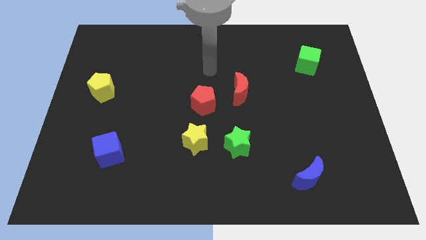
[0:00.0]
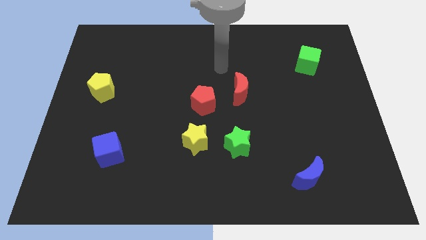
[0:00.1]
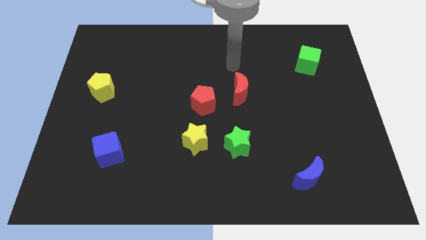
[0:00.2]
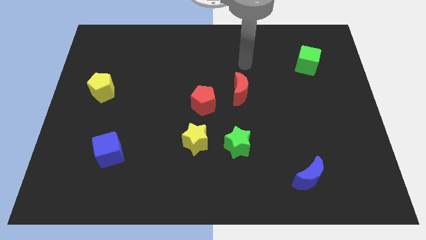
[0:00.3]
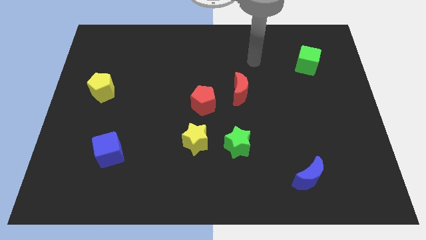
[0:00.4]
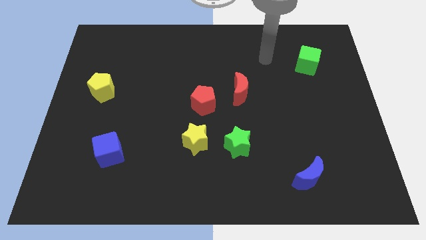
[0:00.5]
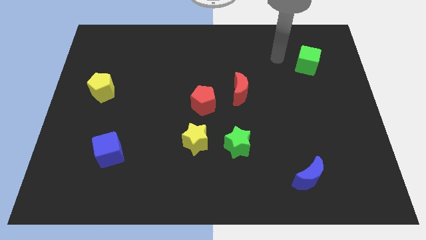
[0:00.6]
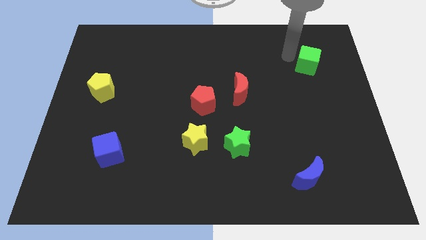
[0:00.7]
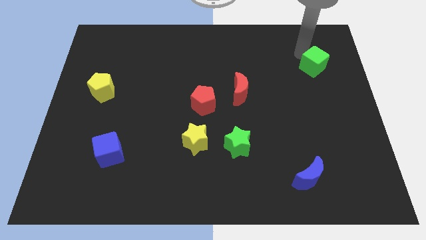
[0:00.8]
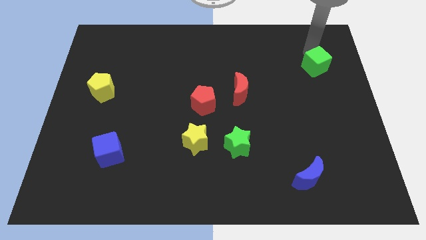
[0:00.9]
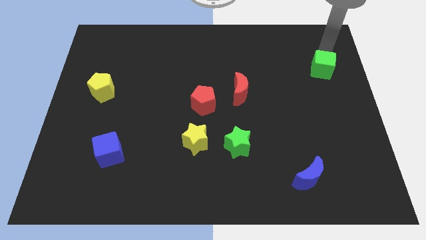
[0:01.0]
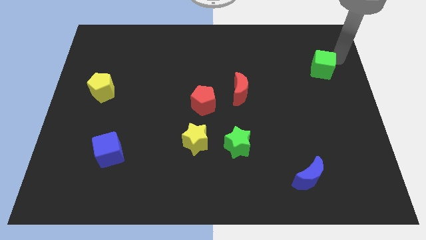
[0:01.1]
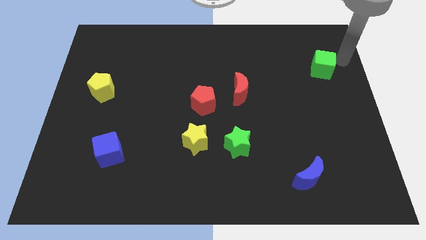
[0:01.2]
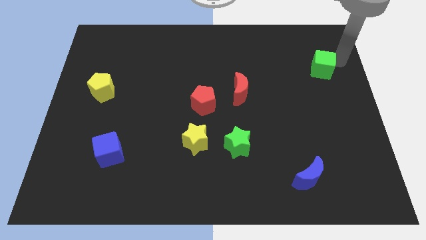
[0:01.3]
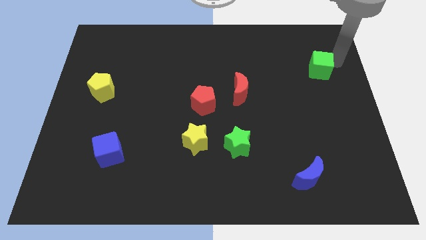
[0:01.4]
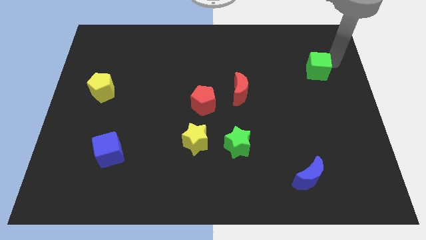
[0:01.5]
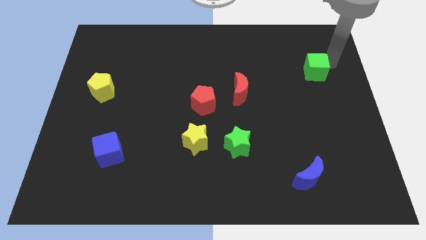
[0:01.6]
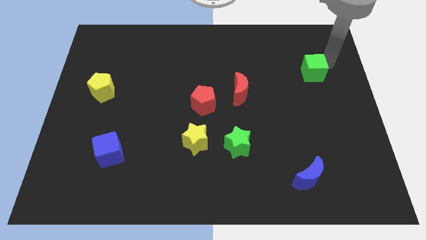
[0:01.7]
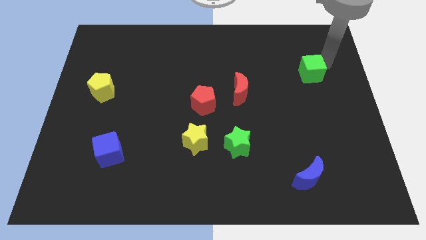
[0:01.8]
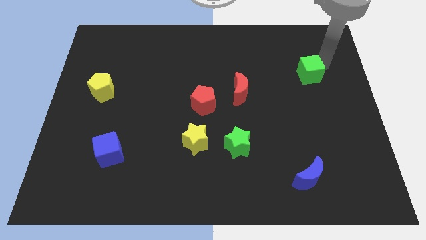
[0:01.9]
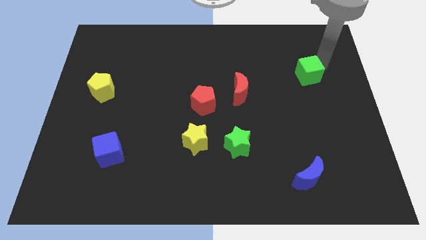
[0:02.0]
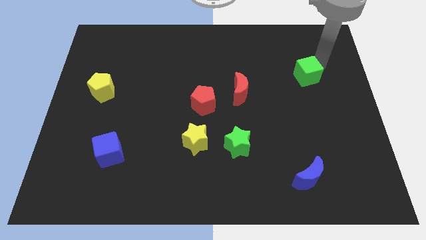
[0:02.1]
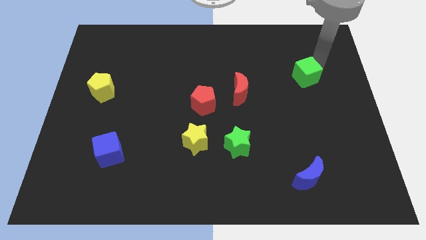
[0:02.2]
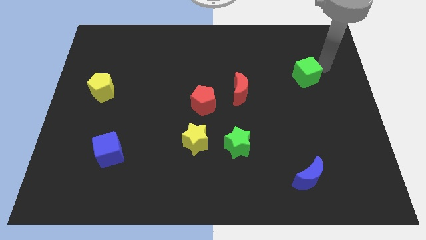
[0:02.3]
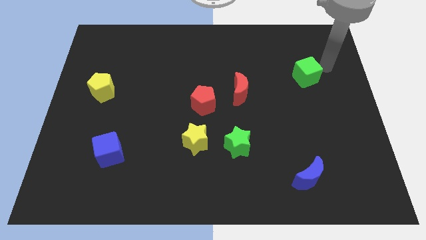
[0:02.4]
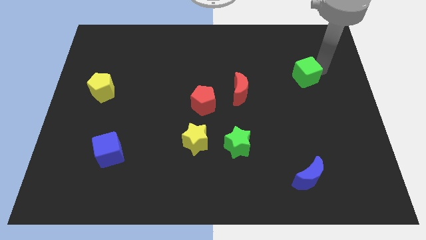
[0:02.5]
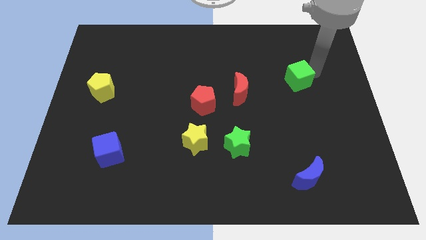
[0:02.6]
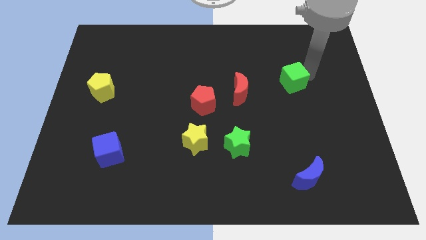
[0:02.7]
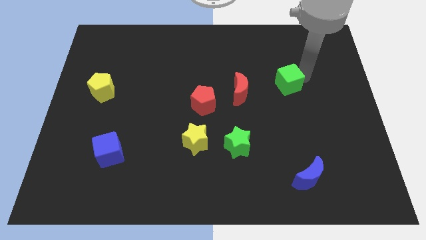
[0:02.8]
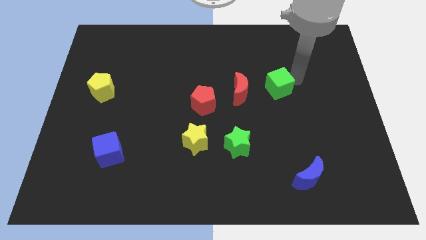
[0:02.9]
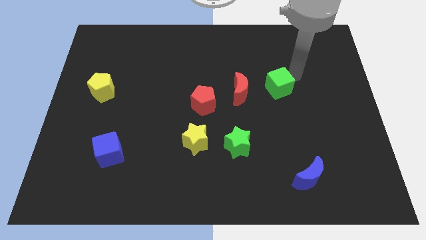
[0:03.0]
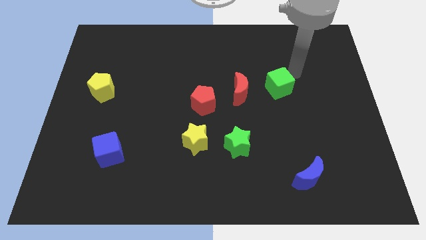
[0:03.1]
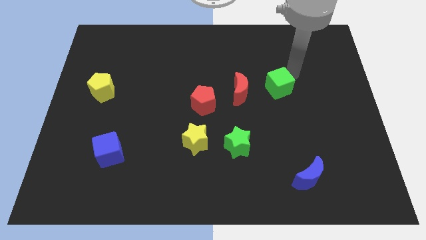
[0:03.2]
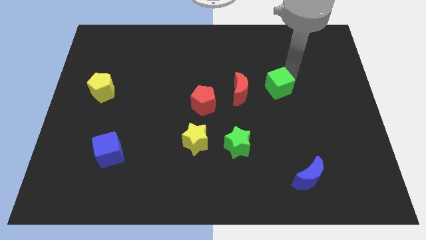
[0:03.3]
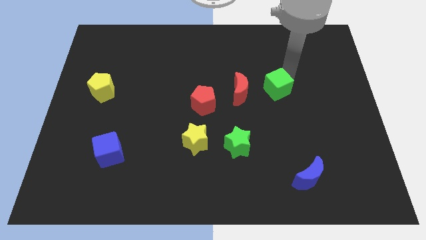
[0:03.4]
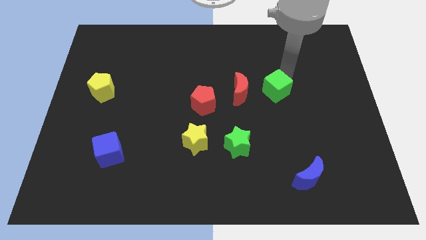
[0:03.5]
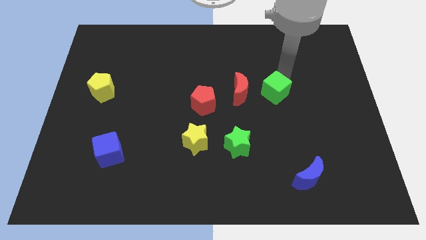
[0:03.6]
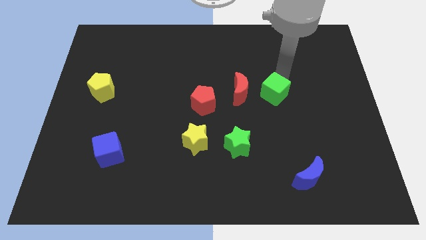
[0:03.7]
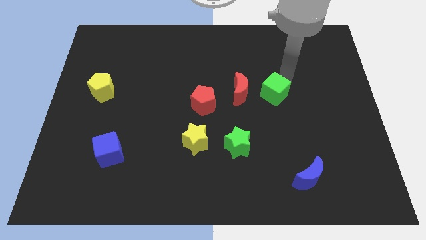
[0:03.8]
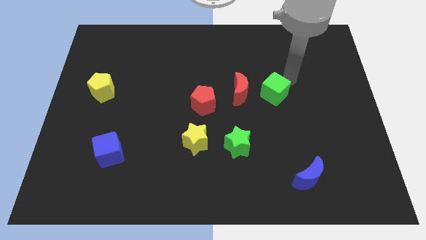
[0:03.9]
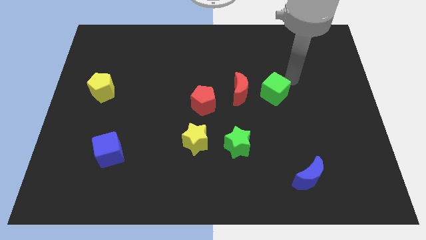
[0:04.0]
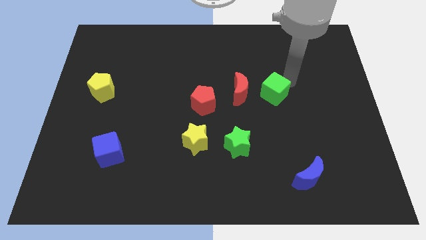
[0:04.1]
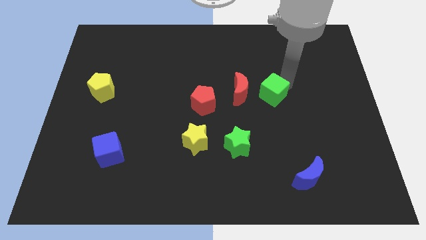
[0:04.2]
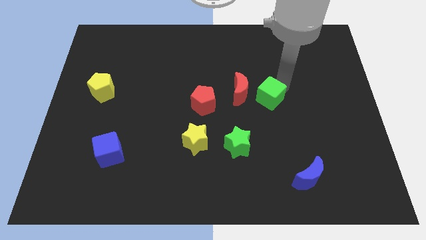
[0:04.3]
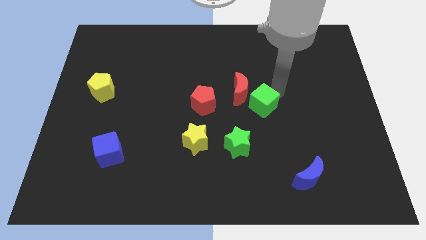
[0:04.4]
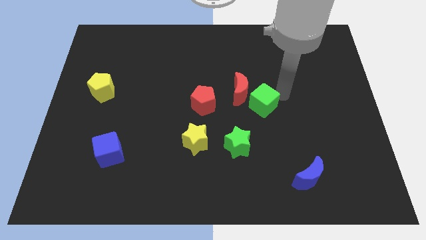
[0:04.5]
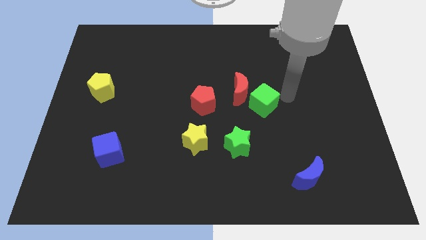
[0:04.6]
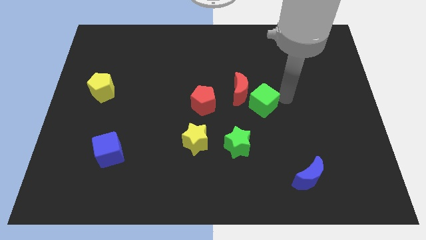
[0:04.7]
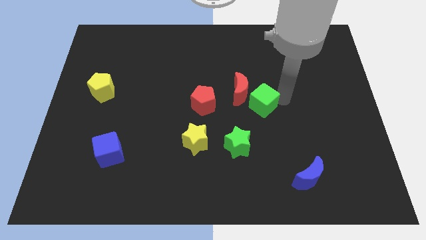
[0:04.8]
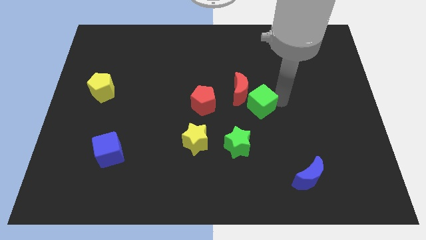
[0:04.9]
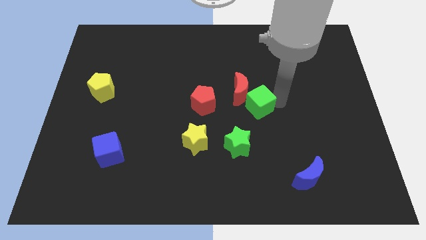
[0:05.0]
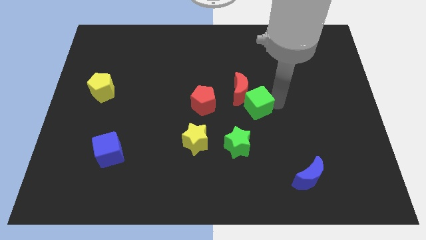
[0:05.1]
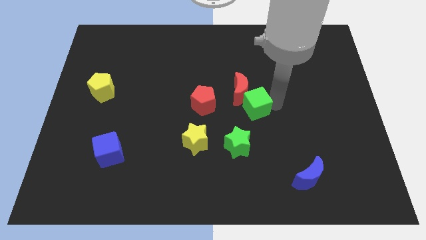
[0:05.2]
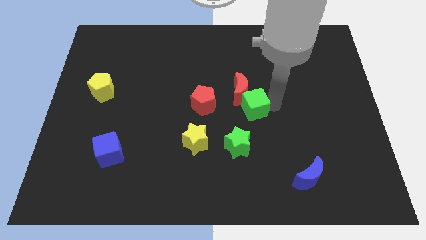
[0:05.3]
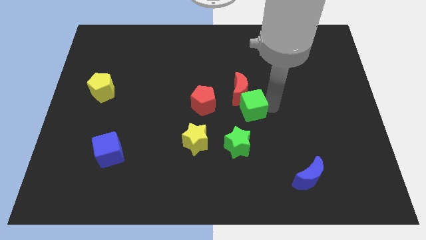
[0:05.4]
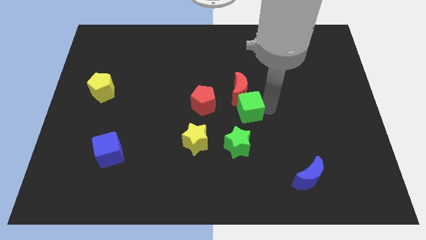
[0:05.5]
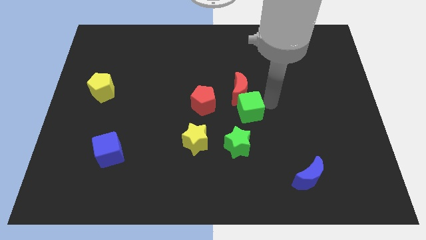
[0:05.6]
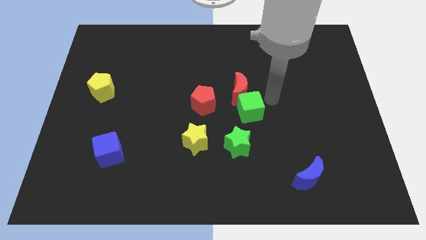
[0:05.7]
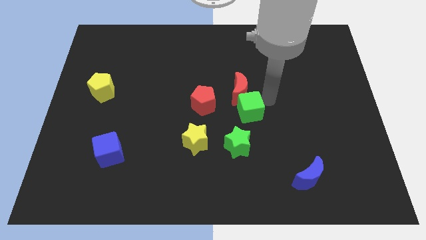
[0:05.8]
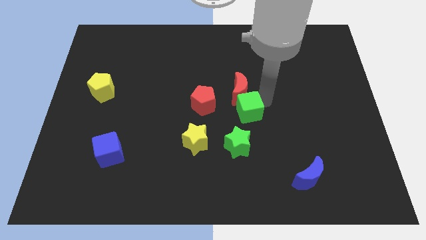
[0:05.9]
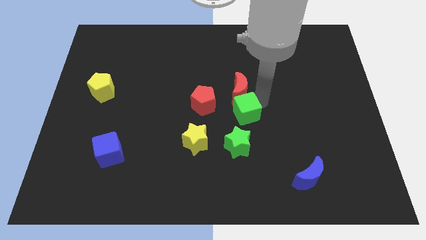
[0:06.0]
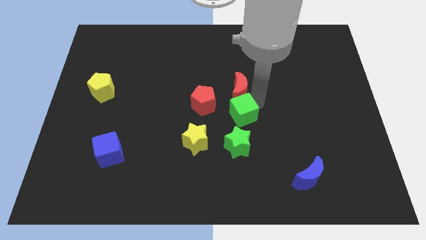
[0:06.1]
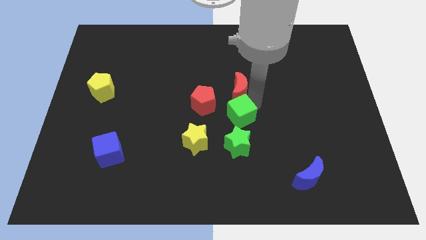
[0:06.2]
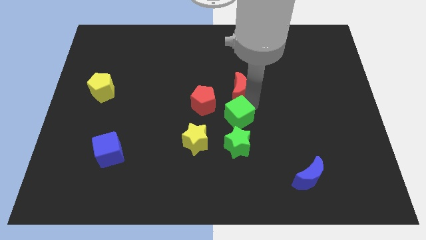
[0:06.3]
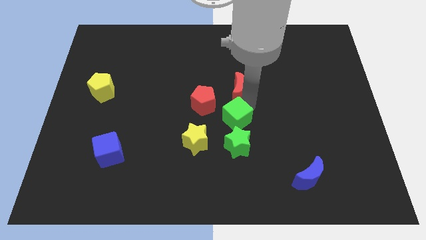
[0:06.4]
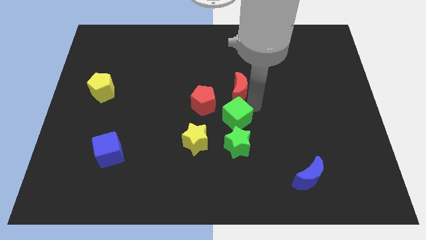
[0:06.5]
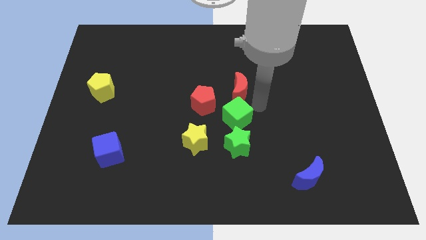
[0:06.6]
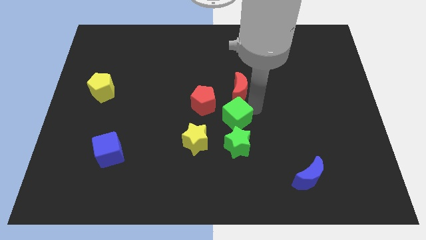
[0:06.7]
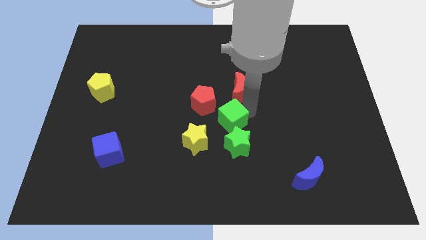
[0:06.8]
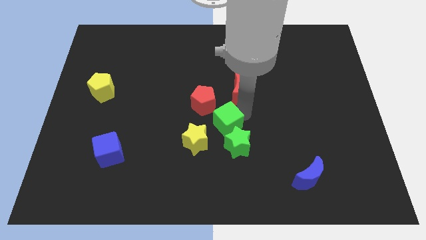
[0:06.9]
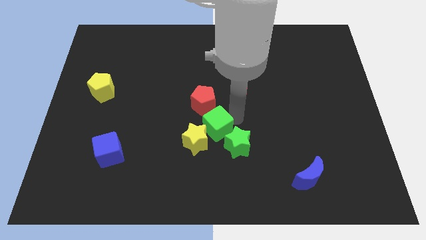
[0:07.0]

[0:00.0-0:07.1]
push the green cube next to the yellow star
